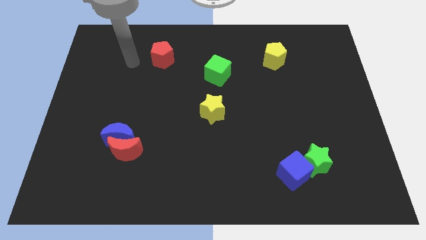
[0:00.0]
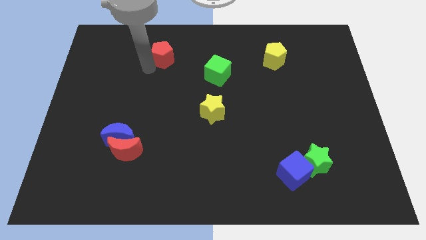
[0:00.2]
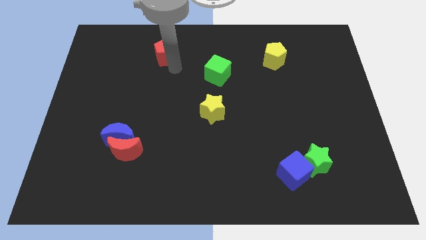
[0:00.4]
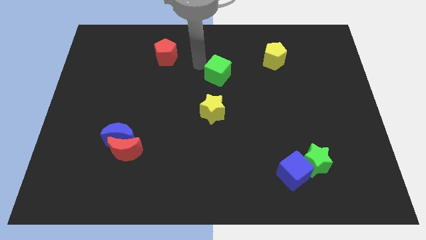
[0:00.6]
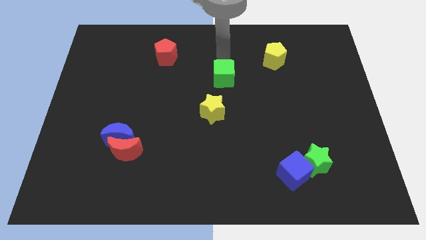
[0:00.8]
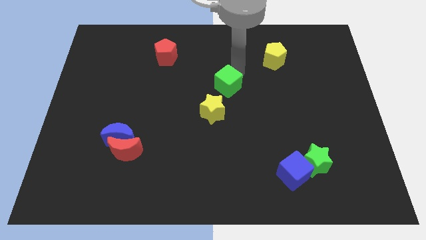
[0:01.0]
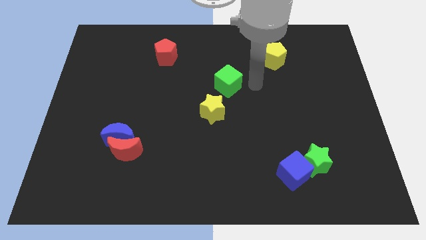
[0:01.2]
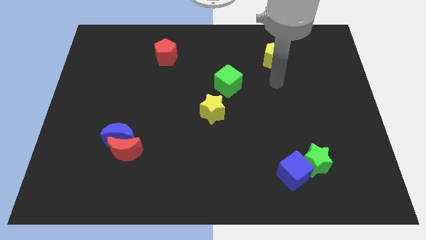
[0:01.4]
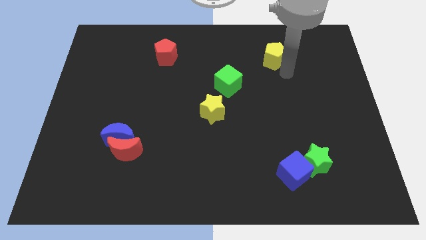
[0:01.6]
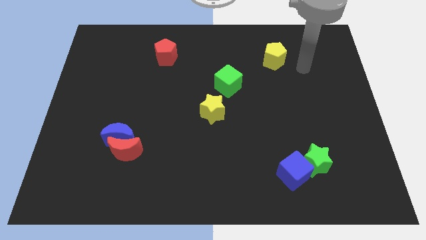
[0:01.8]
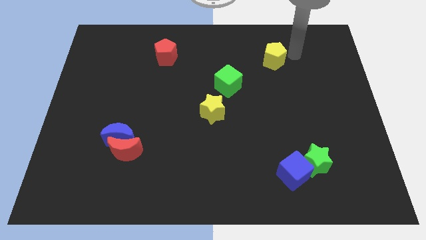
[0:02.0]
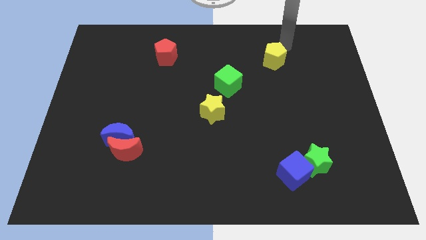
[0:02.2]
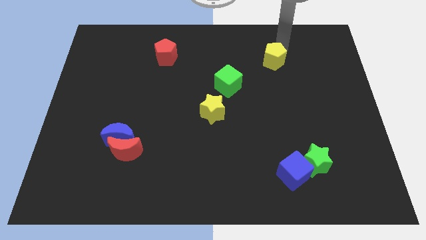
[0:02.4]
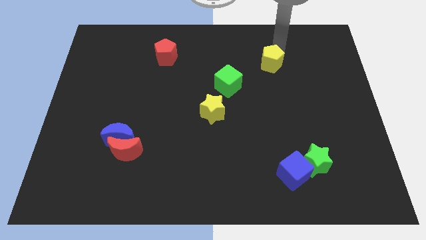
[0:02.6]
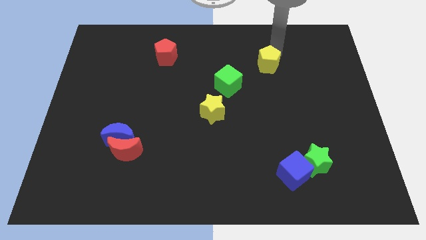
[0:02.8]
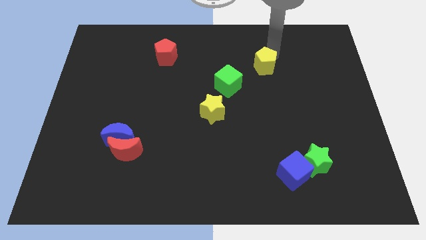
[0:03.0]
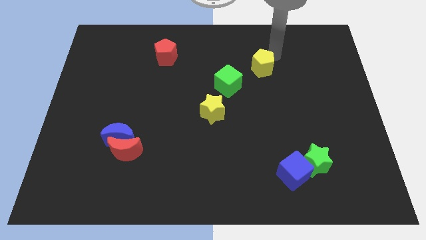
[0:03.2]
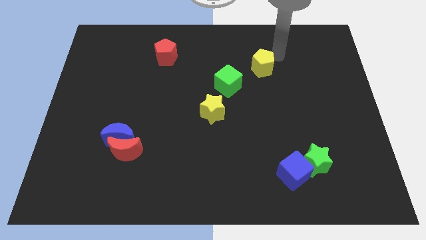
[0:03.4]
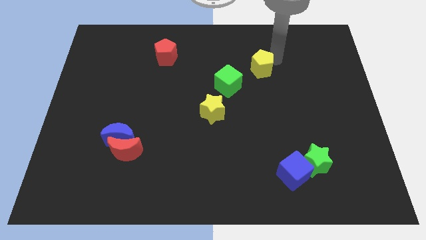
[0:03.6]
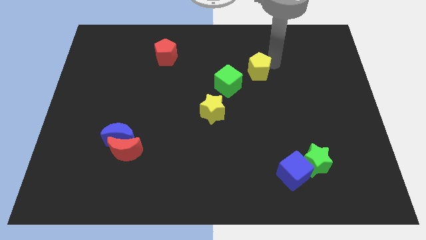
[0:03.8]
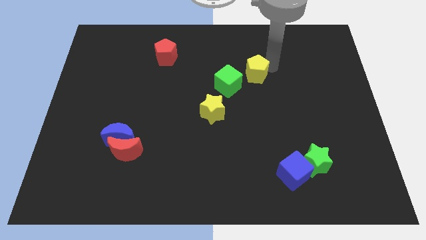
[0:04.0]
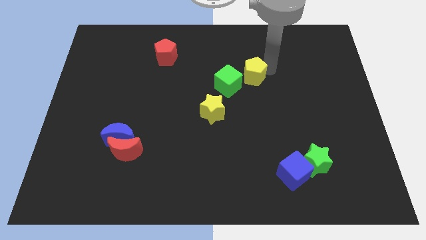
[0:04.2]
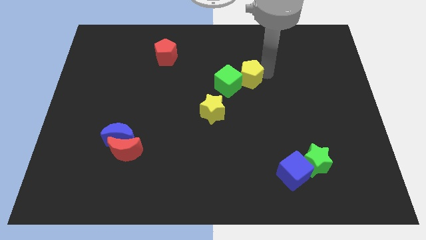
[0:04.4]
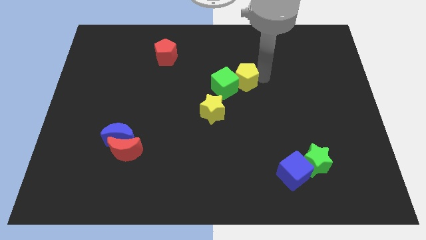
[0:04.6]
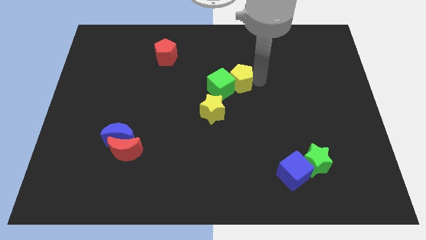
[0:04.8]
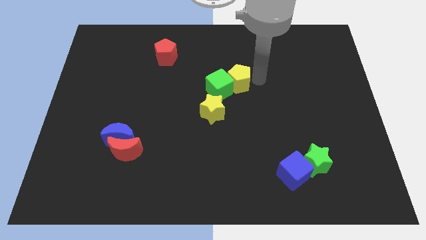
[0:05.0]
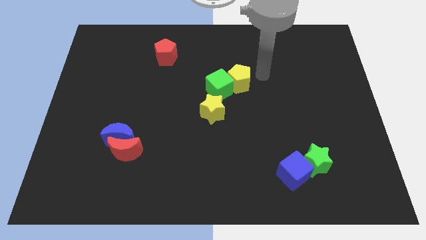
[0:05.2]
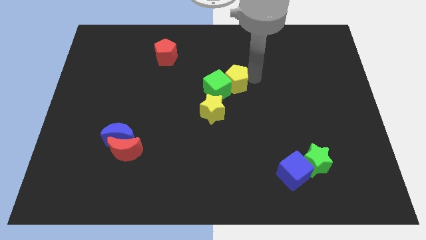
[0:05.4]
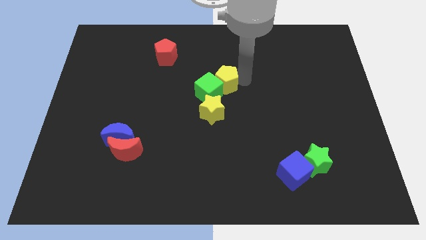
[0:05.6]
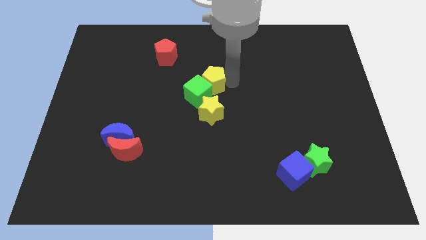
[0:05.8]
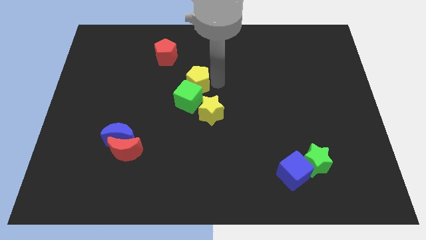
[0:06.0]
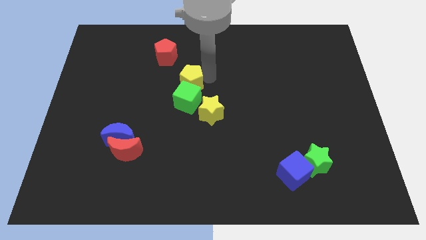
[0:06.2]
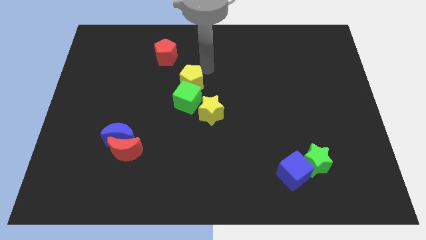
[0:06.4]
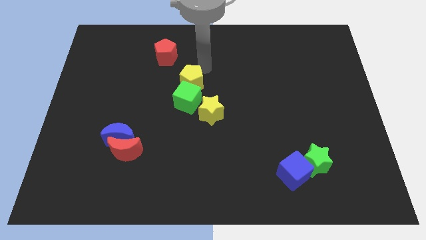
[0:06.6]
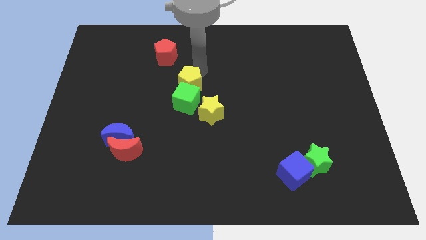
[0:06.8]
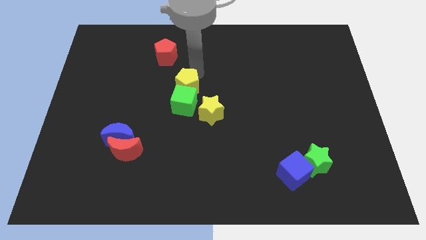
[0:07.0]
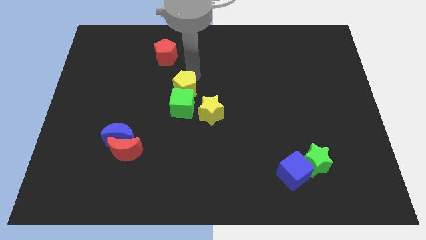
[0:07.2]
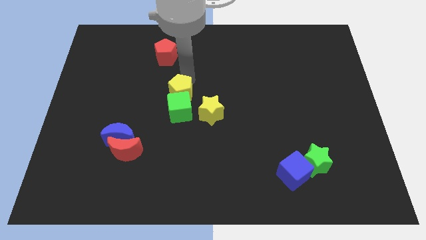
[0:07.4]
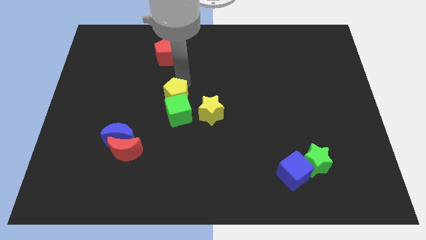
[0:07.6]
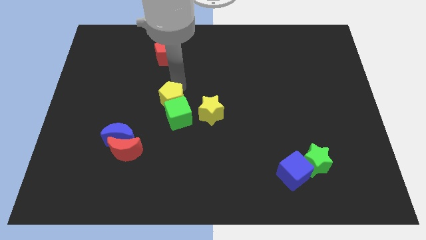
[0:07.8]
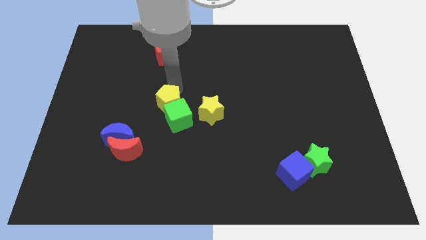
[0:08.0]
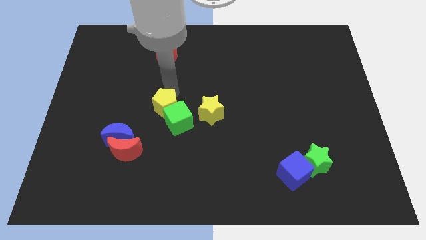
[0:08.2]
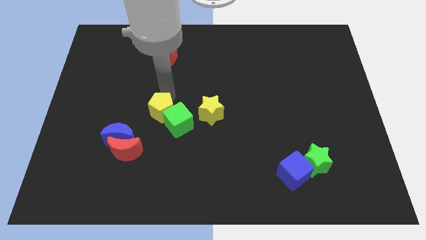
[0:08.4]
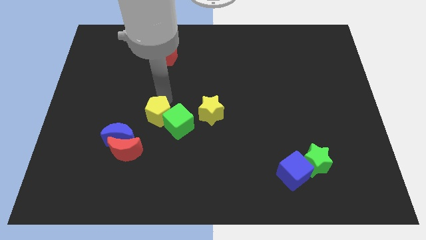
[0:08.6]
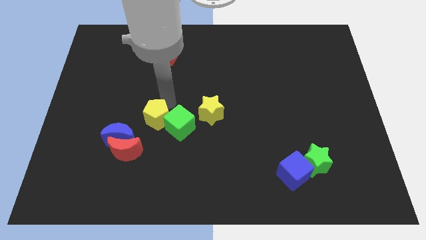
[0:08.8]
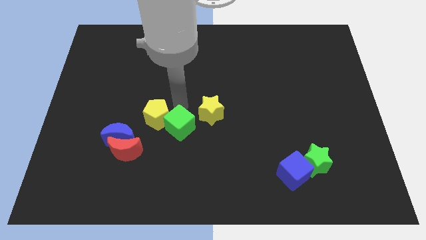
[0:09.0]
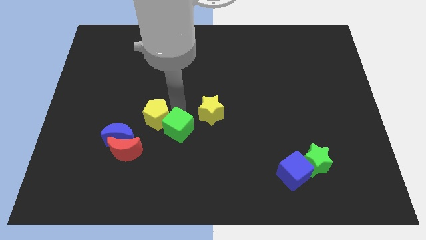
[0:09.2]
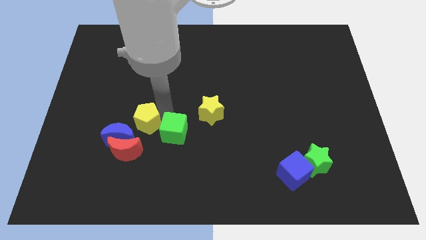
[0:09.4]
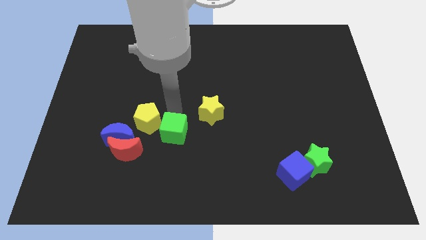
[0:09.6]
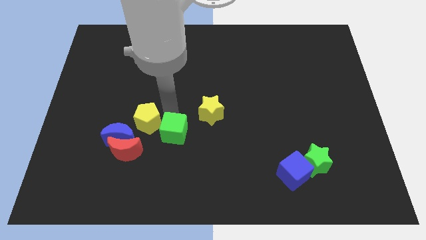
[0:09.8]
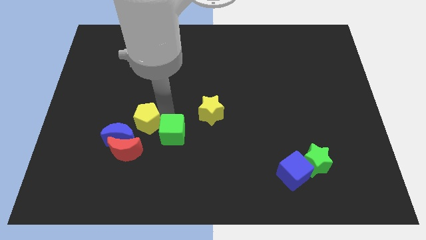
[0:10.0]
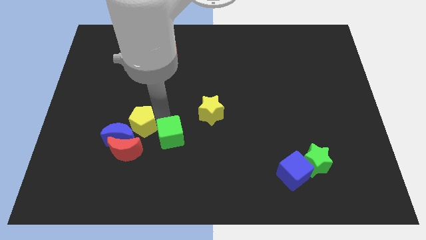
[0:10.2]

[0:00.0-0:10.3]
put the yellow pentagon close to the blue moon

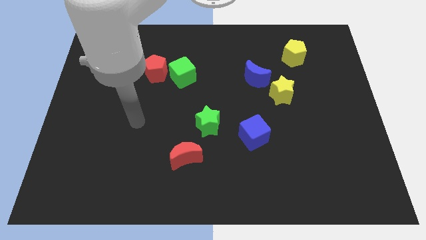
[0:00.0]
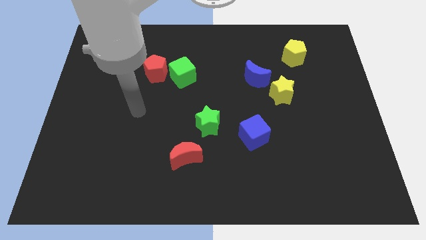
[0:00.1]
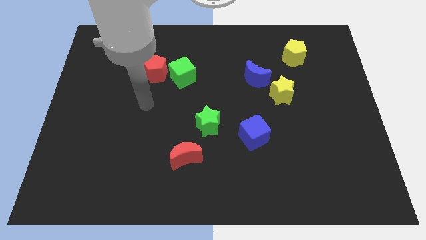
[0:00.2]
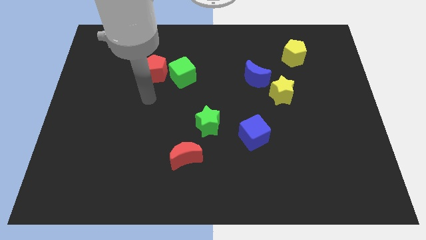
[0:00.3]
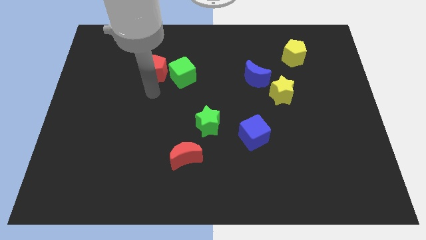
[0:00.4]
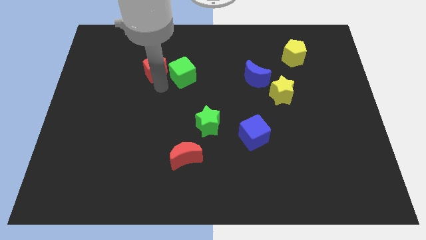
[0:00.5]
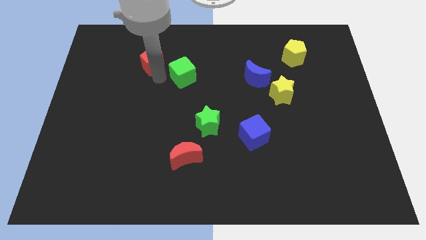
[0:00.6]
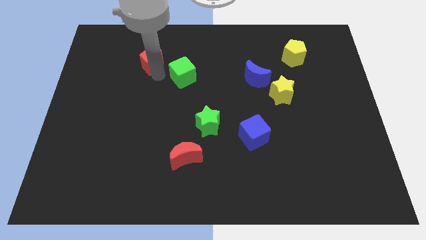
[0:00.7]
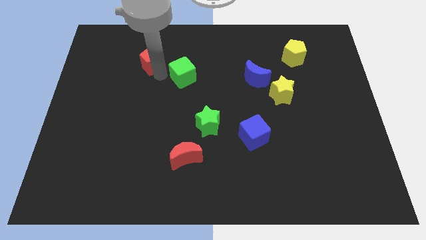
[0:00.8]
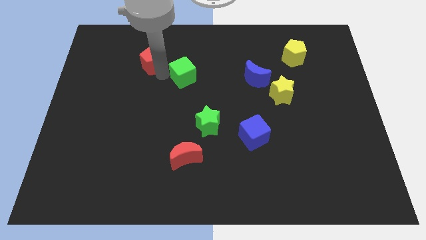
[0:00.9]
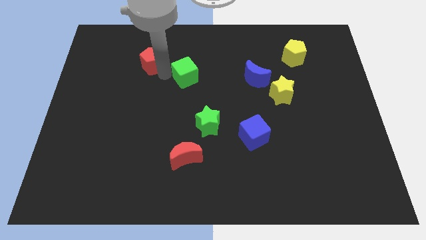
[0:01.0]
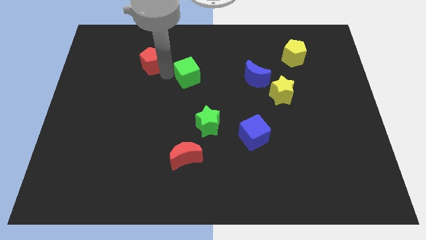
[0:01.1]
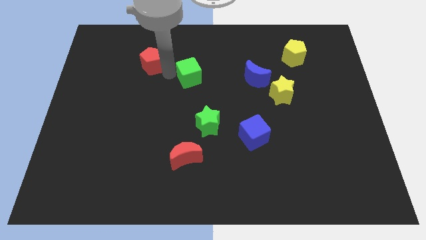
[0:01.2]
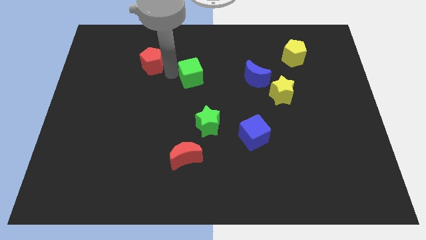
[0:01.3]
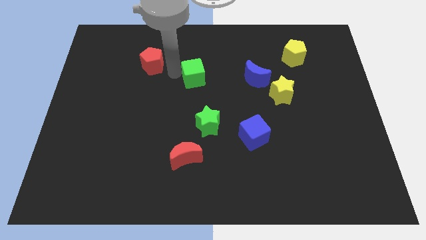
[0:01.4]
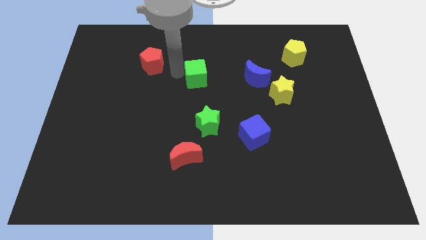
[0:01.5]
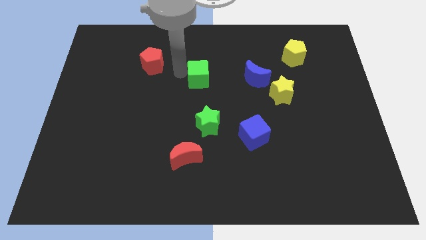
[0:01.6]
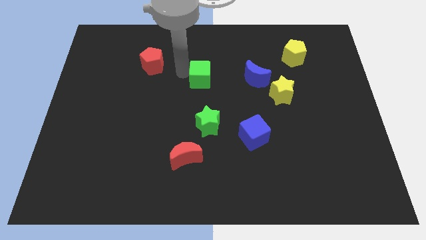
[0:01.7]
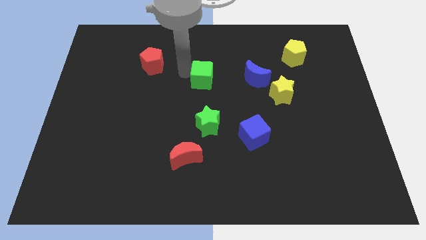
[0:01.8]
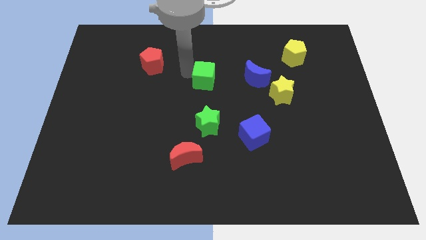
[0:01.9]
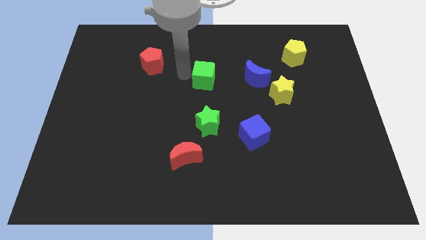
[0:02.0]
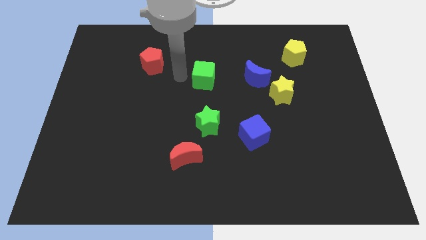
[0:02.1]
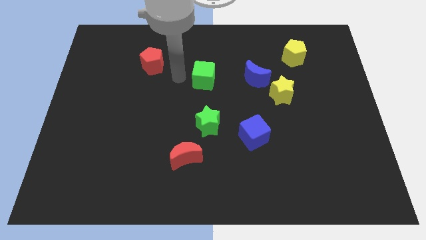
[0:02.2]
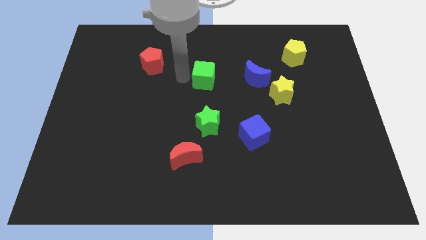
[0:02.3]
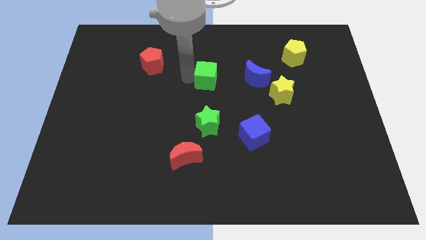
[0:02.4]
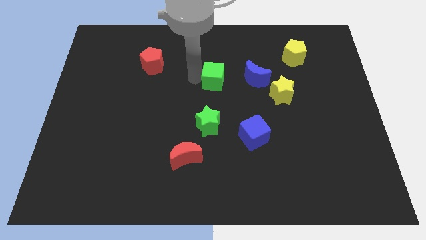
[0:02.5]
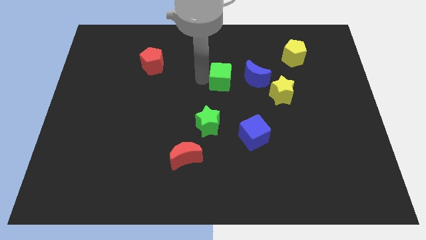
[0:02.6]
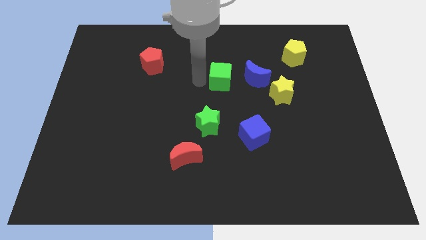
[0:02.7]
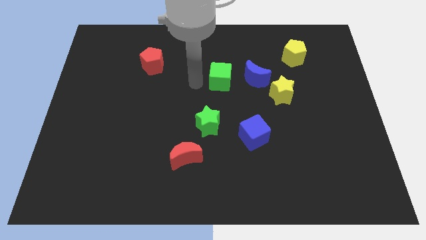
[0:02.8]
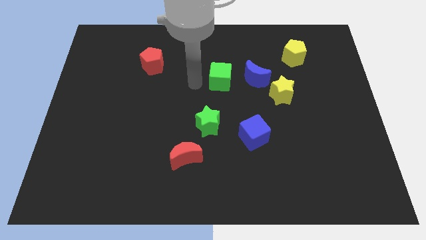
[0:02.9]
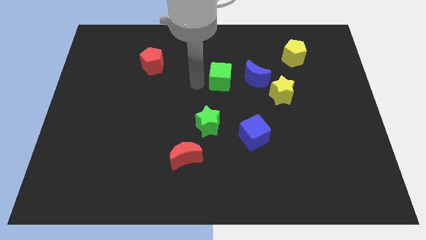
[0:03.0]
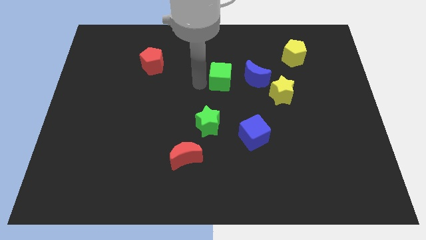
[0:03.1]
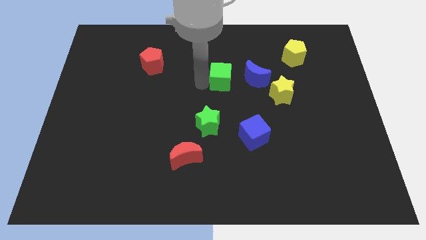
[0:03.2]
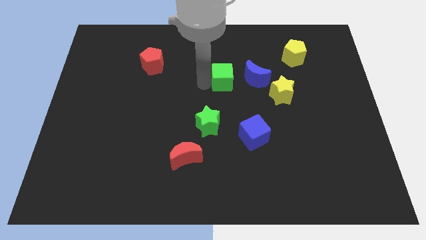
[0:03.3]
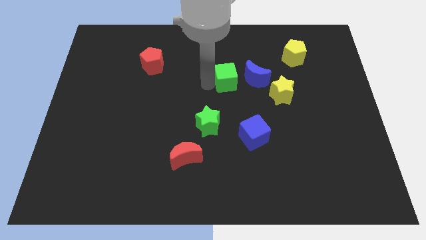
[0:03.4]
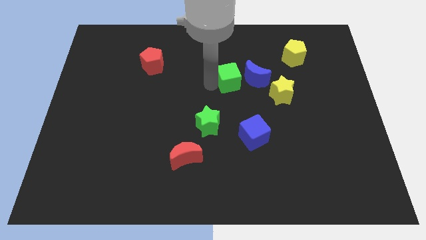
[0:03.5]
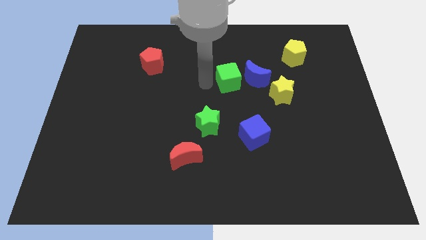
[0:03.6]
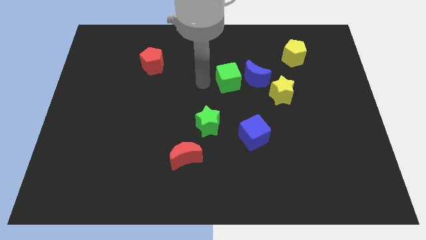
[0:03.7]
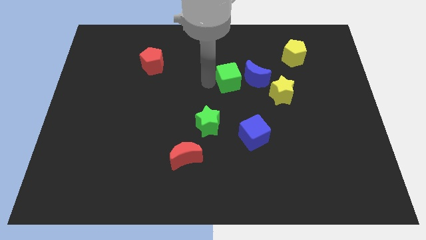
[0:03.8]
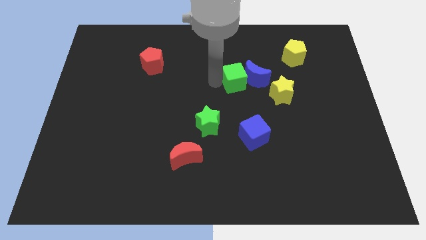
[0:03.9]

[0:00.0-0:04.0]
move the green cube towards the blue moon
